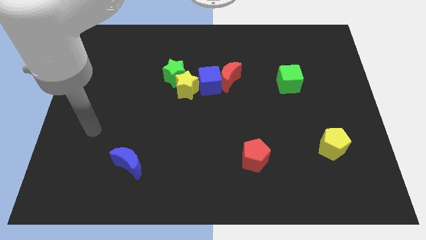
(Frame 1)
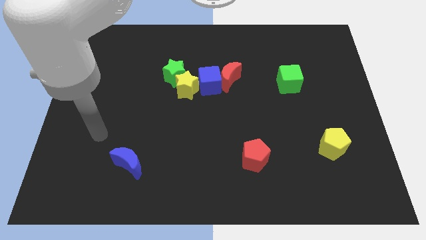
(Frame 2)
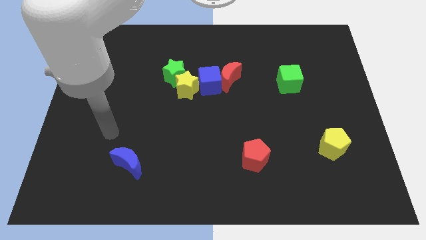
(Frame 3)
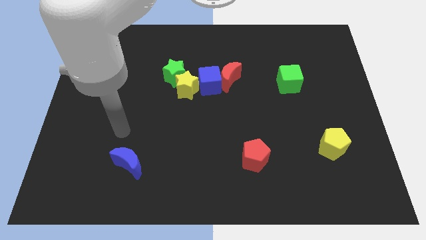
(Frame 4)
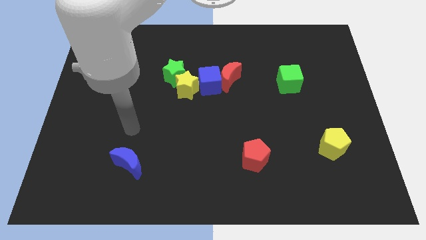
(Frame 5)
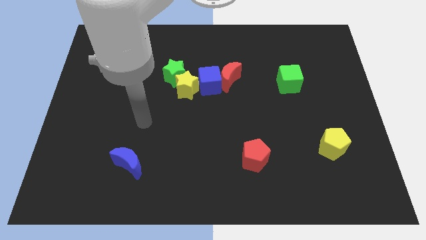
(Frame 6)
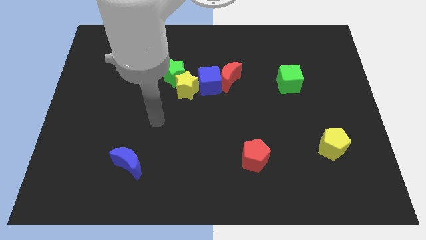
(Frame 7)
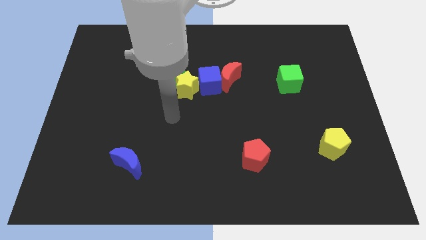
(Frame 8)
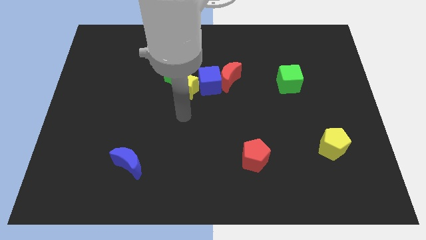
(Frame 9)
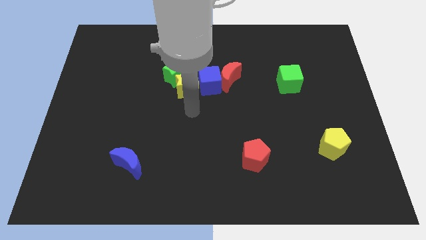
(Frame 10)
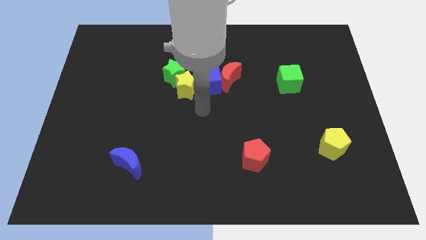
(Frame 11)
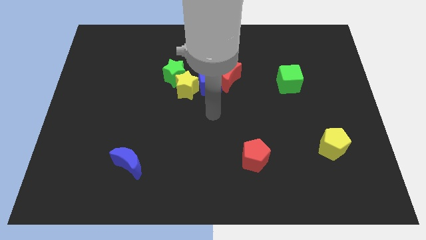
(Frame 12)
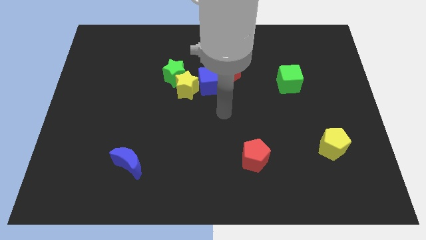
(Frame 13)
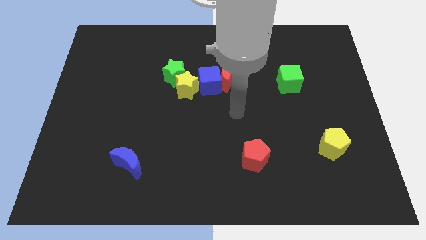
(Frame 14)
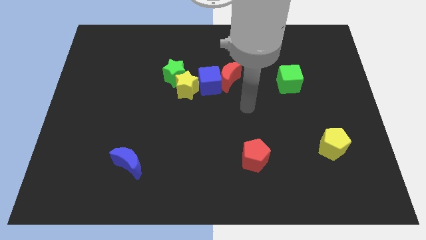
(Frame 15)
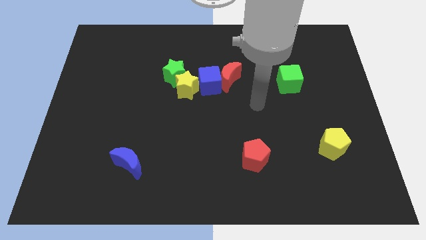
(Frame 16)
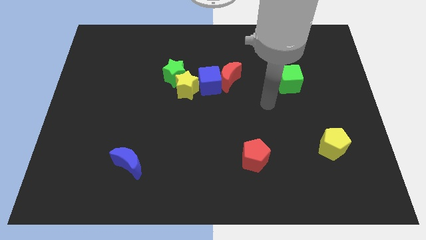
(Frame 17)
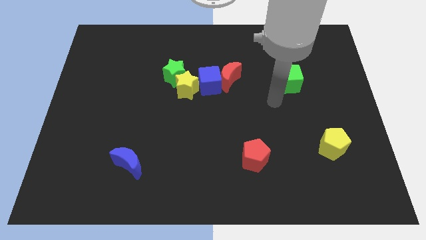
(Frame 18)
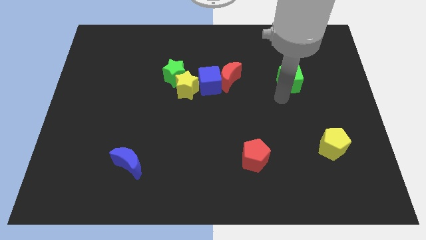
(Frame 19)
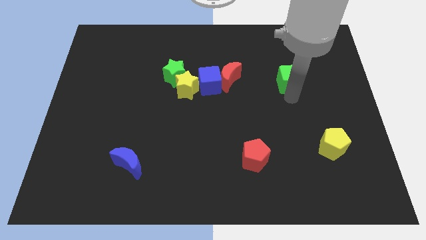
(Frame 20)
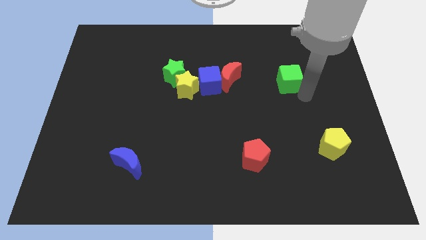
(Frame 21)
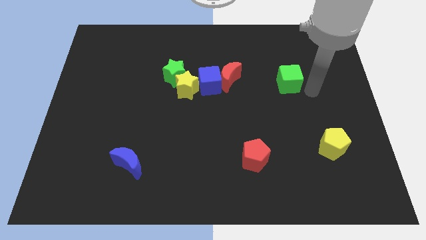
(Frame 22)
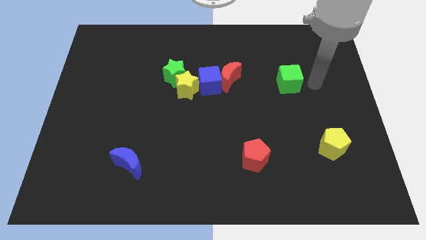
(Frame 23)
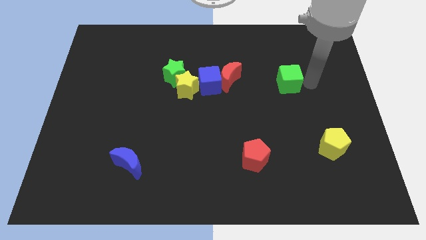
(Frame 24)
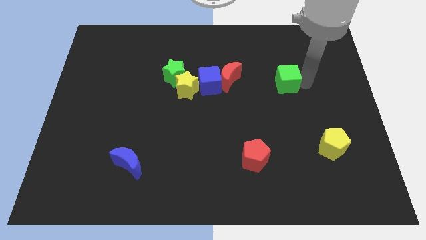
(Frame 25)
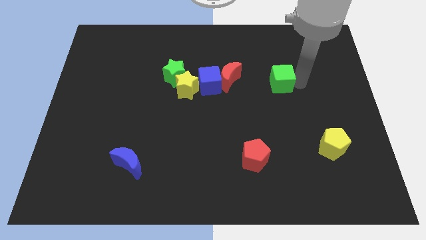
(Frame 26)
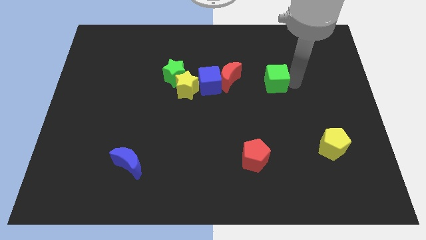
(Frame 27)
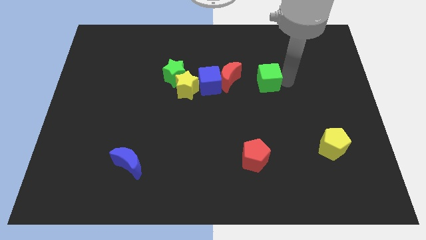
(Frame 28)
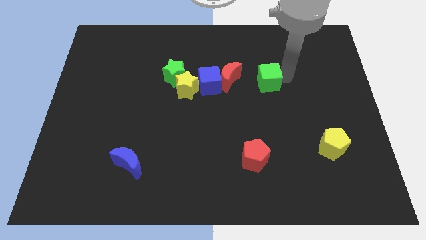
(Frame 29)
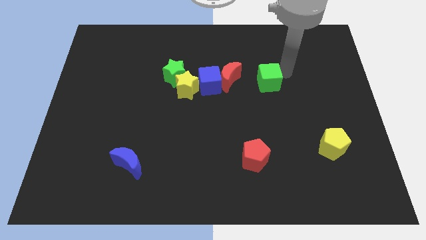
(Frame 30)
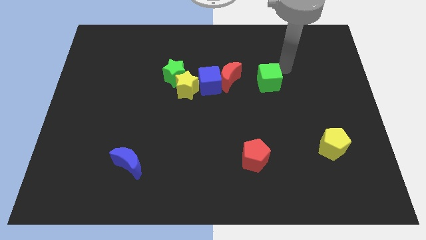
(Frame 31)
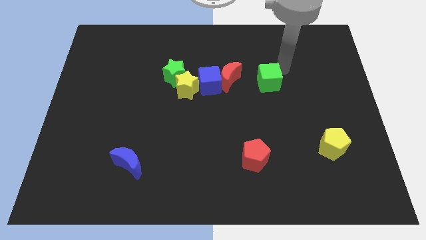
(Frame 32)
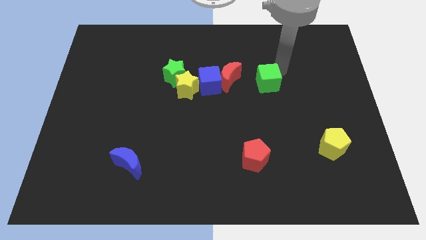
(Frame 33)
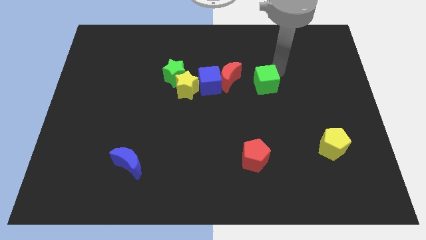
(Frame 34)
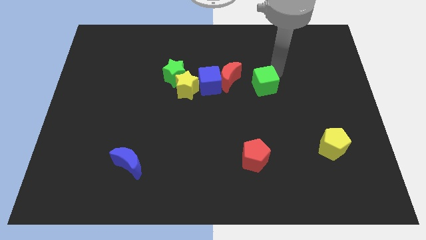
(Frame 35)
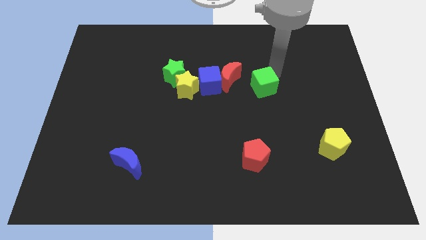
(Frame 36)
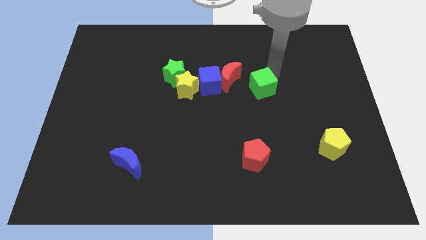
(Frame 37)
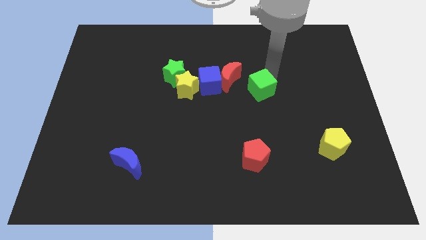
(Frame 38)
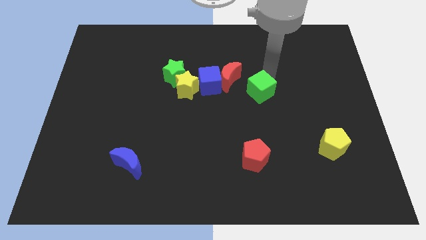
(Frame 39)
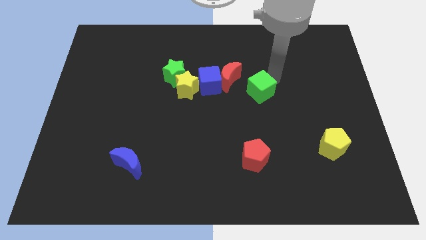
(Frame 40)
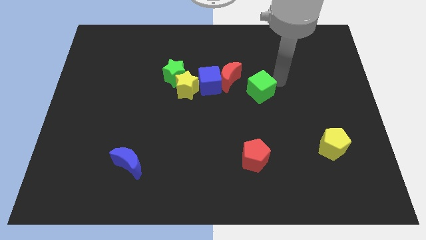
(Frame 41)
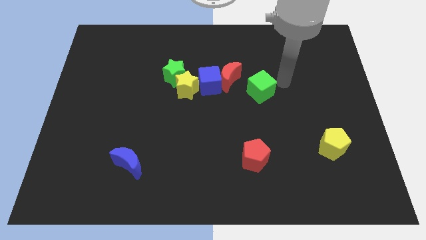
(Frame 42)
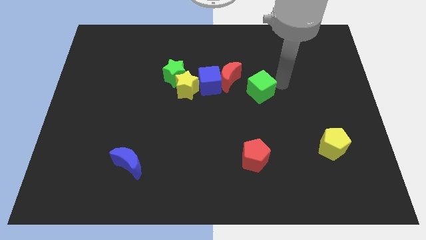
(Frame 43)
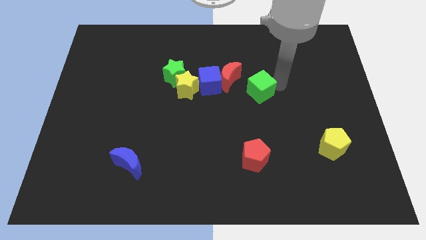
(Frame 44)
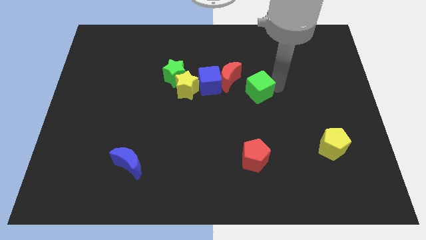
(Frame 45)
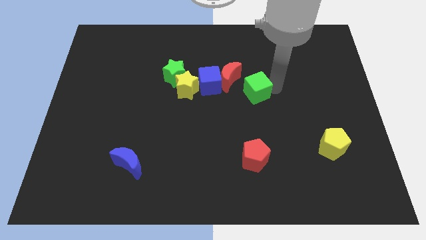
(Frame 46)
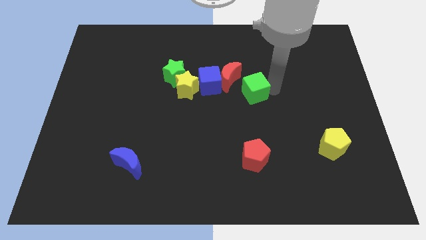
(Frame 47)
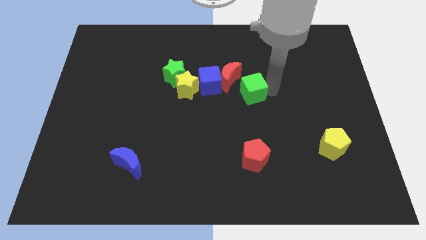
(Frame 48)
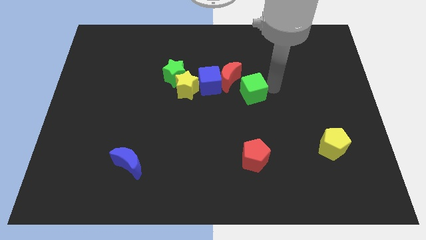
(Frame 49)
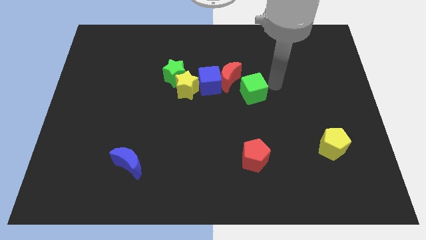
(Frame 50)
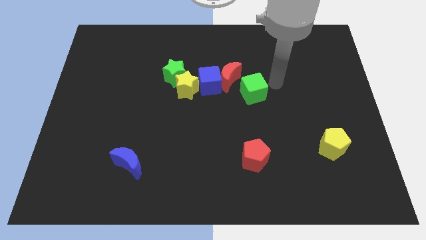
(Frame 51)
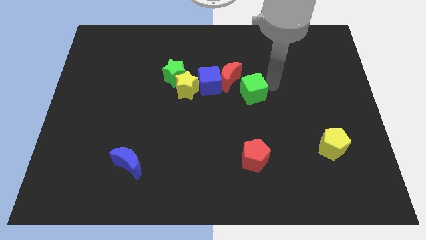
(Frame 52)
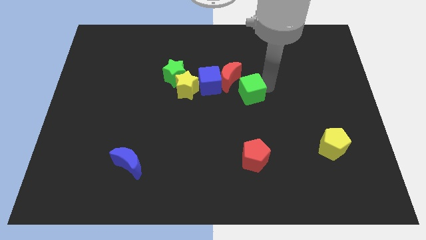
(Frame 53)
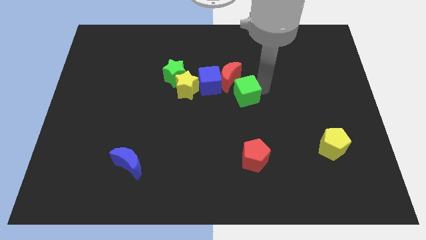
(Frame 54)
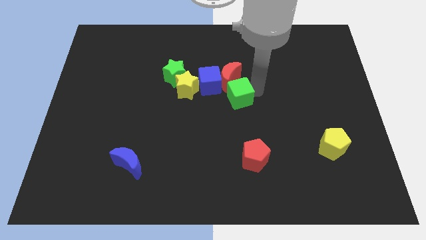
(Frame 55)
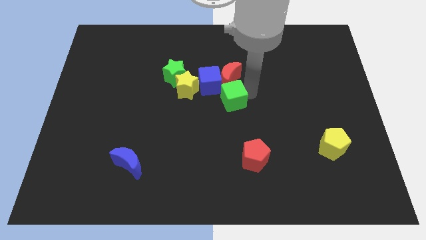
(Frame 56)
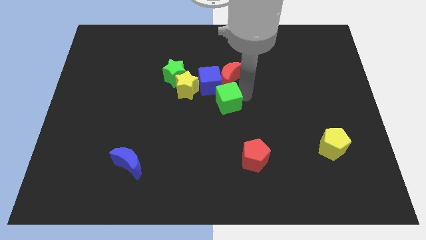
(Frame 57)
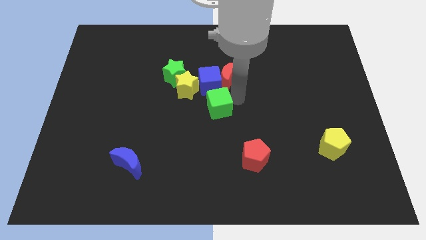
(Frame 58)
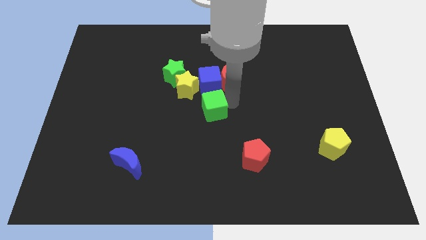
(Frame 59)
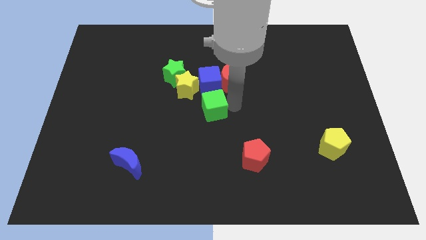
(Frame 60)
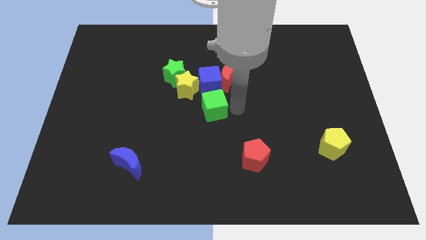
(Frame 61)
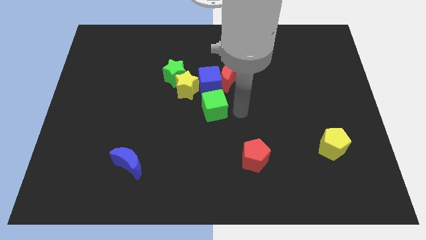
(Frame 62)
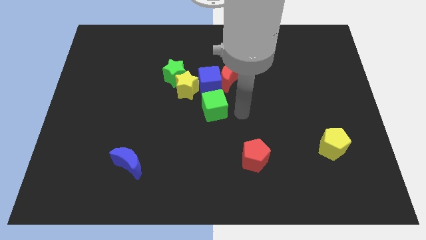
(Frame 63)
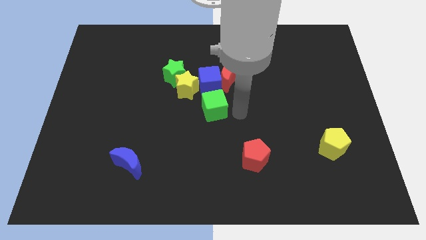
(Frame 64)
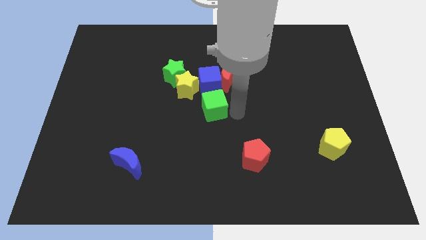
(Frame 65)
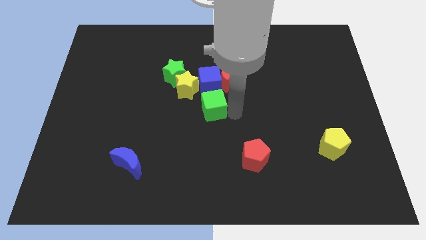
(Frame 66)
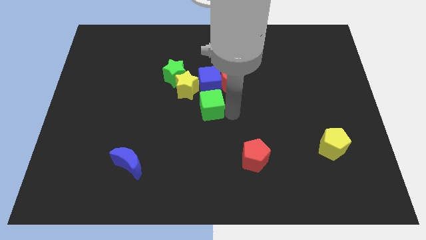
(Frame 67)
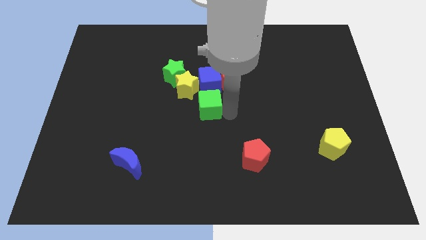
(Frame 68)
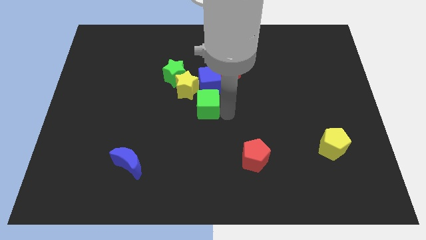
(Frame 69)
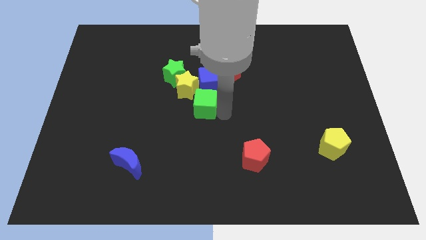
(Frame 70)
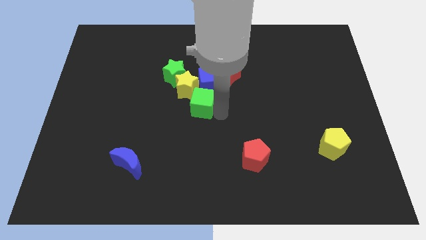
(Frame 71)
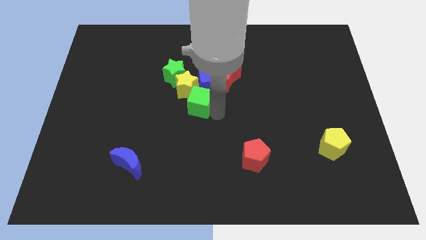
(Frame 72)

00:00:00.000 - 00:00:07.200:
push the green cube left

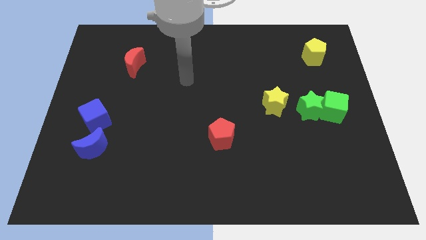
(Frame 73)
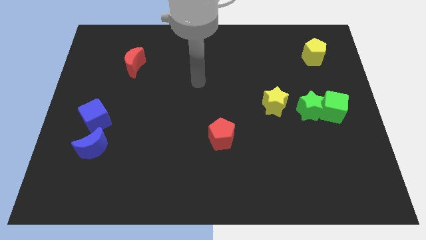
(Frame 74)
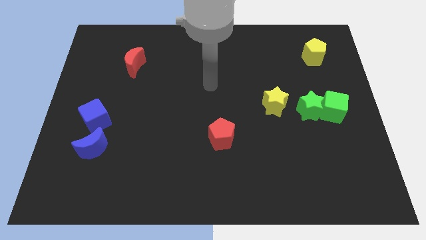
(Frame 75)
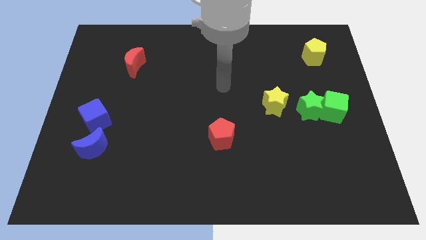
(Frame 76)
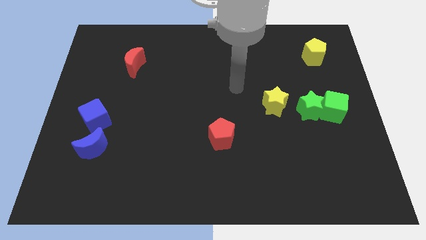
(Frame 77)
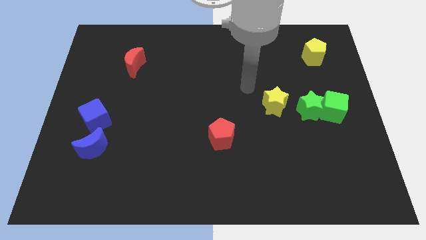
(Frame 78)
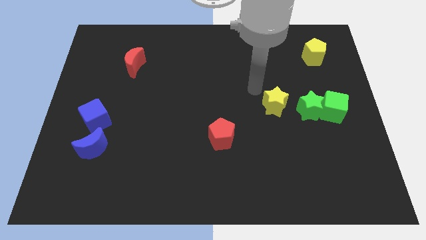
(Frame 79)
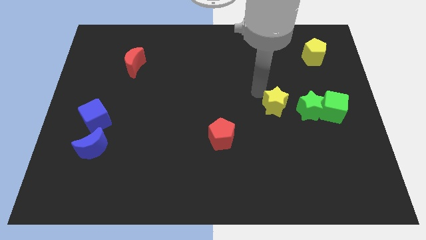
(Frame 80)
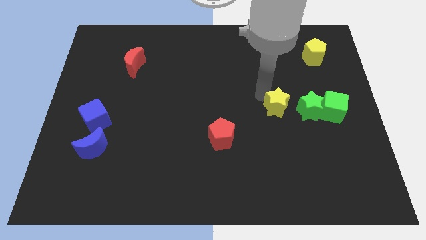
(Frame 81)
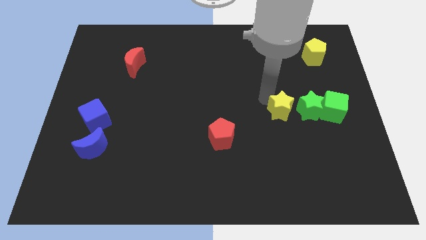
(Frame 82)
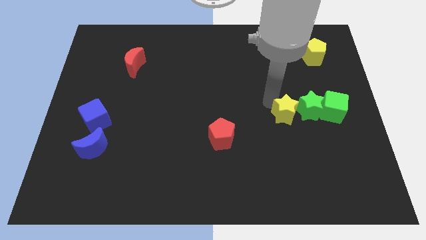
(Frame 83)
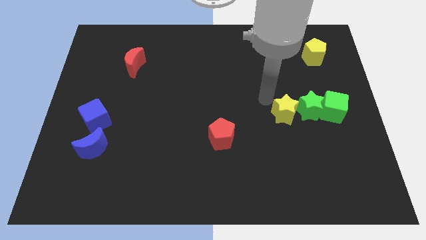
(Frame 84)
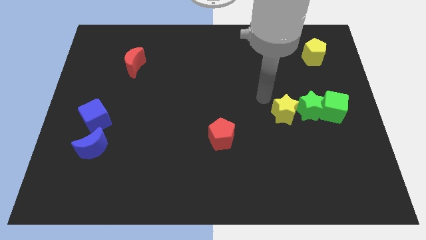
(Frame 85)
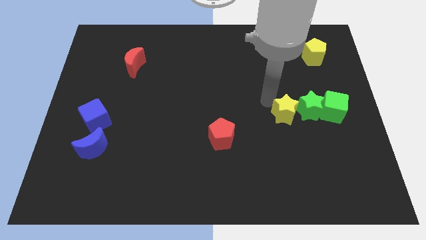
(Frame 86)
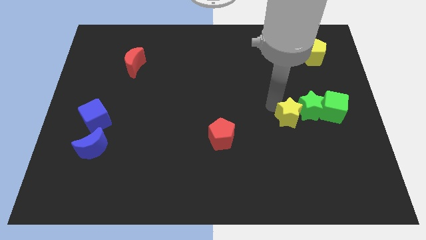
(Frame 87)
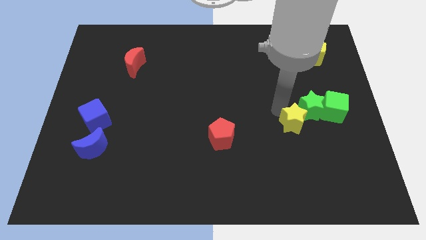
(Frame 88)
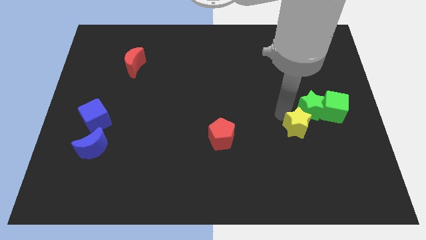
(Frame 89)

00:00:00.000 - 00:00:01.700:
slightly move the yellow star down and to the right diagonally
